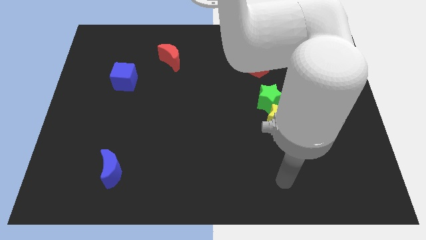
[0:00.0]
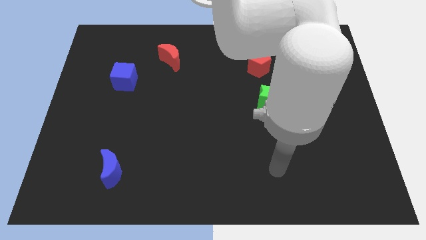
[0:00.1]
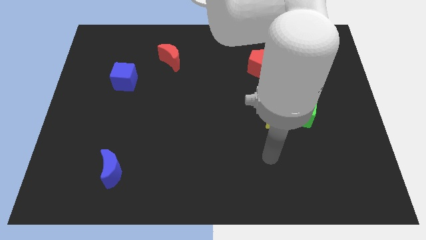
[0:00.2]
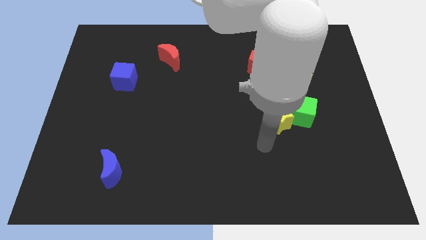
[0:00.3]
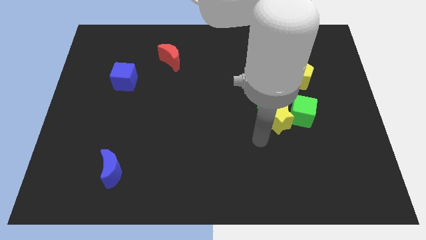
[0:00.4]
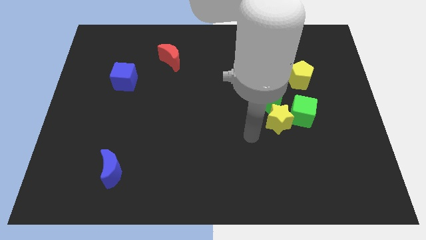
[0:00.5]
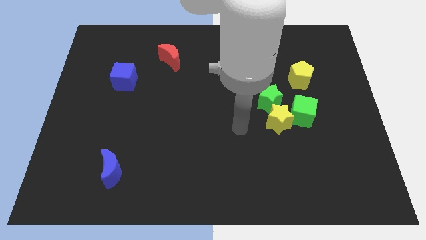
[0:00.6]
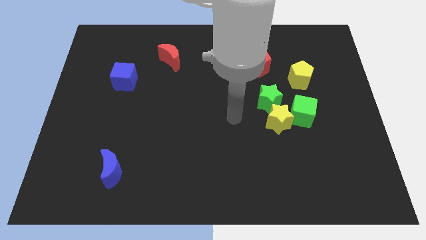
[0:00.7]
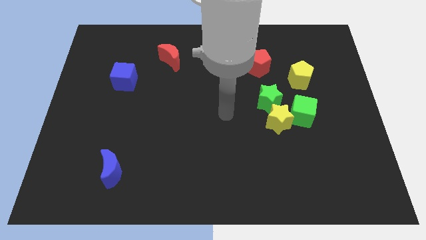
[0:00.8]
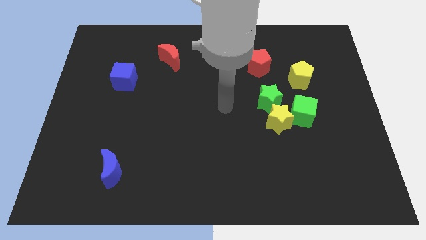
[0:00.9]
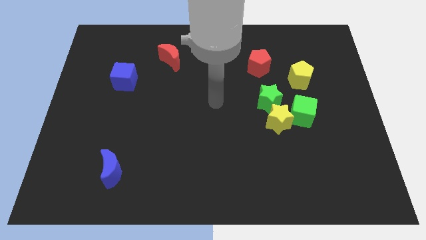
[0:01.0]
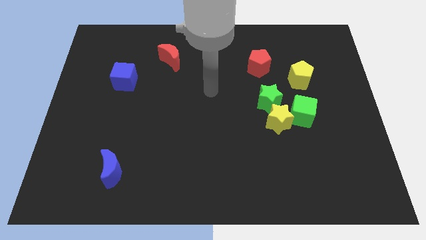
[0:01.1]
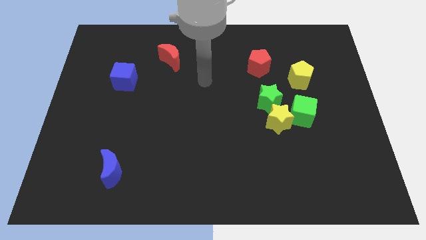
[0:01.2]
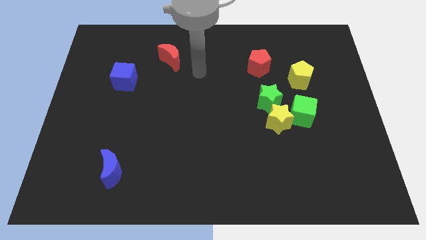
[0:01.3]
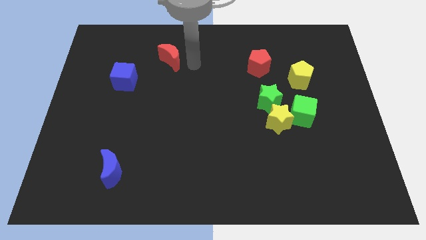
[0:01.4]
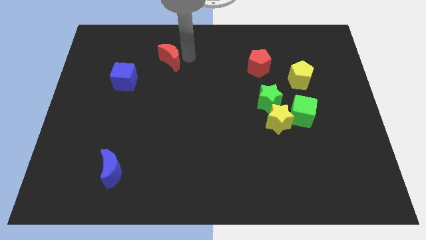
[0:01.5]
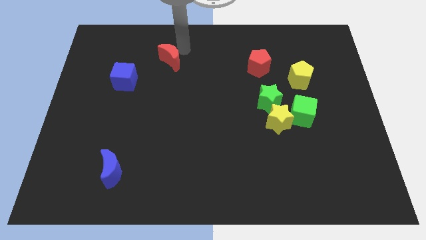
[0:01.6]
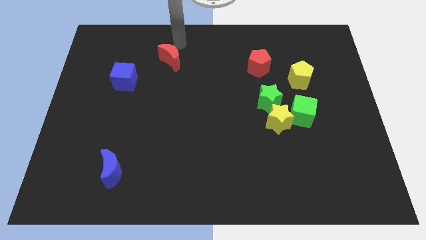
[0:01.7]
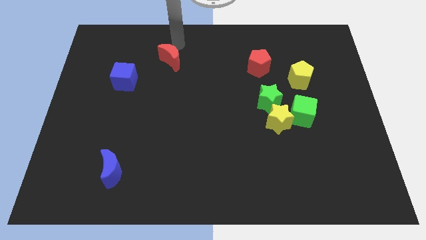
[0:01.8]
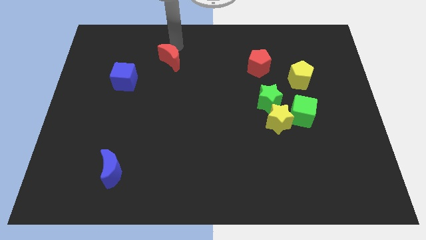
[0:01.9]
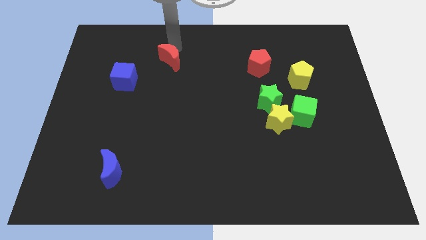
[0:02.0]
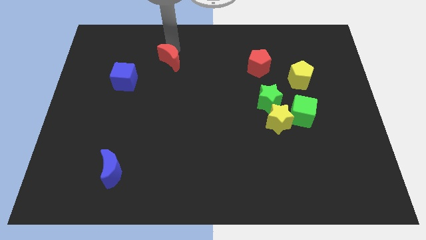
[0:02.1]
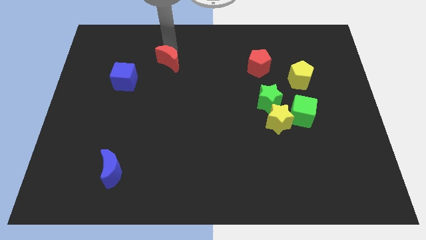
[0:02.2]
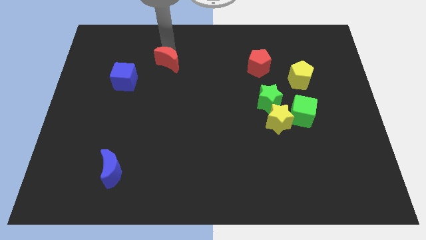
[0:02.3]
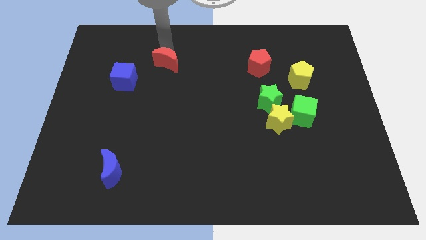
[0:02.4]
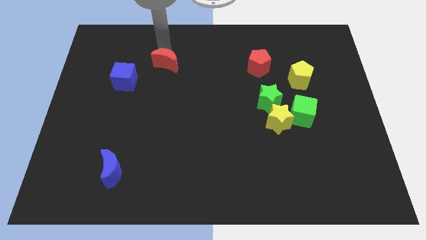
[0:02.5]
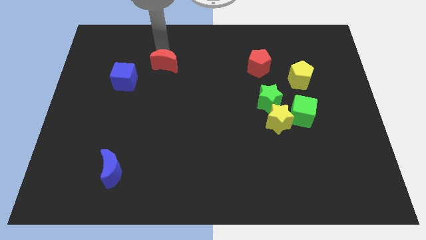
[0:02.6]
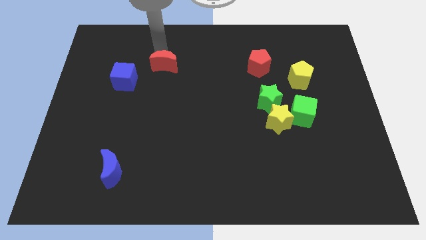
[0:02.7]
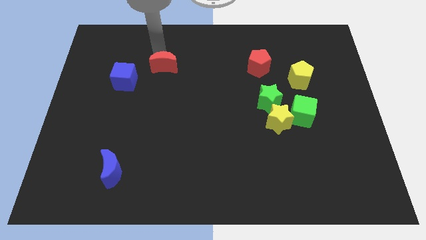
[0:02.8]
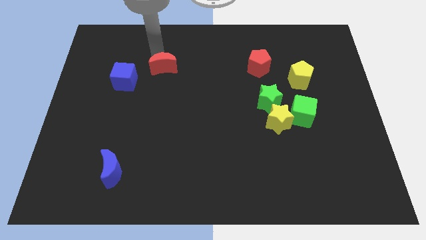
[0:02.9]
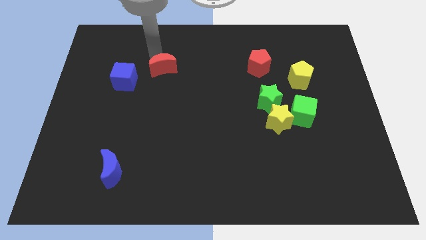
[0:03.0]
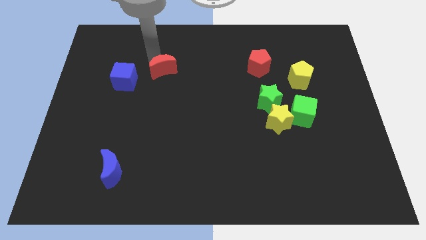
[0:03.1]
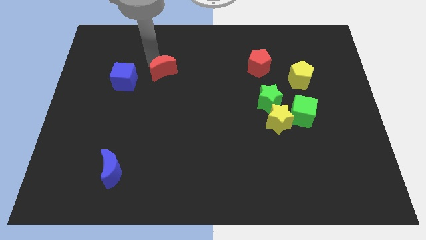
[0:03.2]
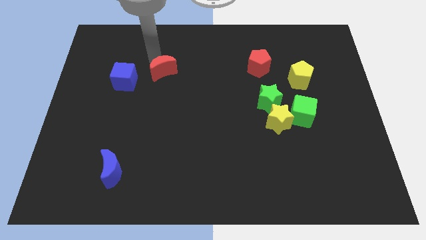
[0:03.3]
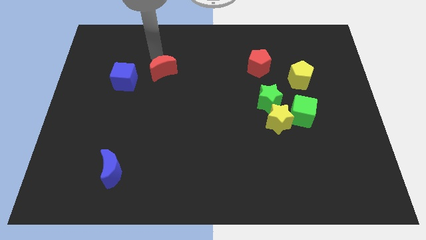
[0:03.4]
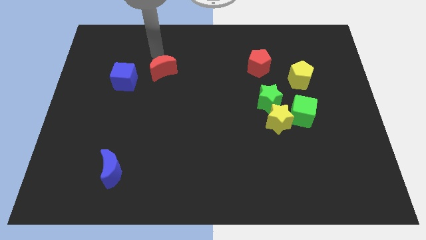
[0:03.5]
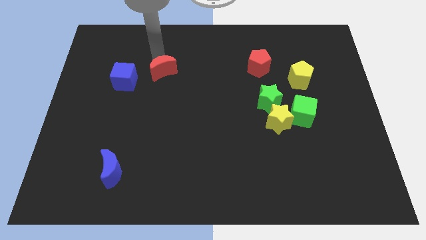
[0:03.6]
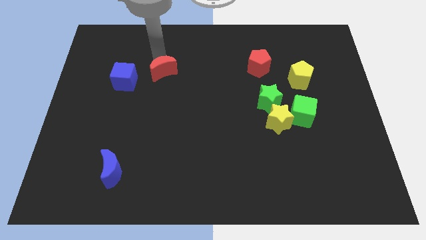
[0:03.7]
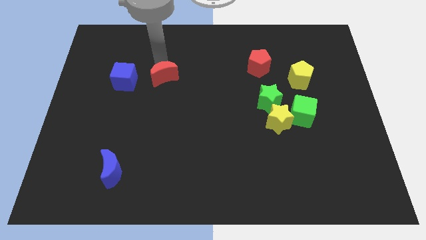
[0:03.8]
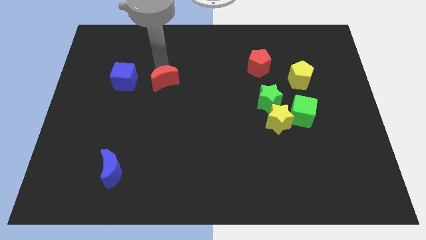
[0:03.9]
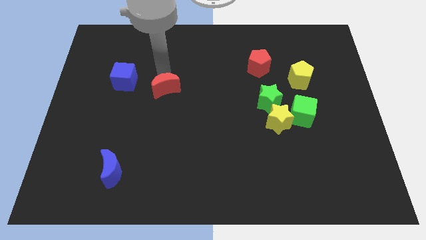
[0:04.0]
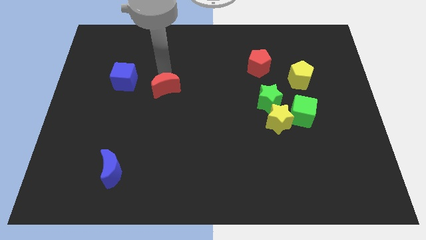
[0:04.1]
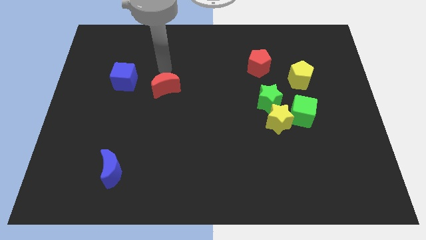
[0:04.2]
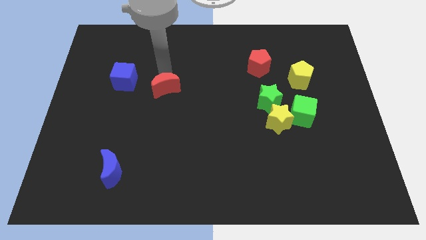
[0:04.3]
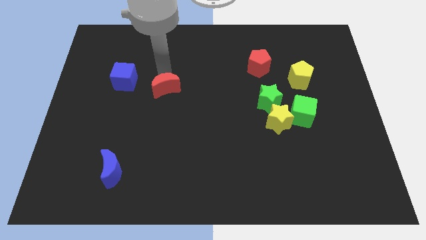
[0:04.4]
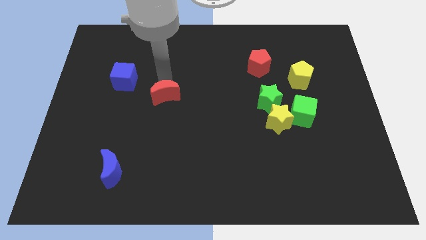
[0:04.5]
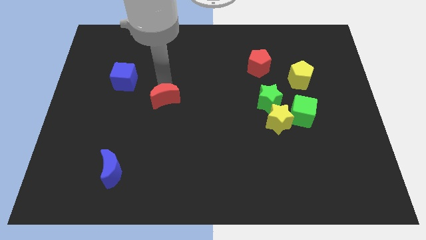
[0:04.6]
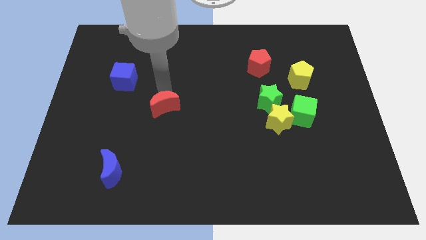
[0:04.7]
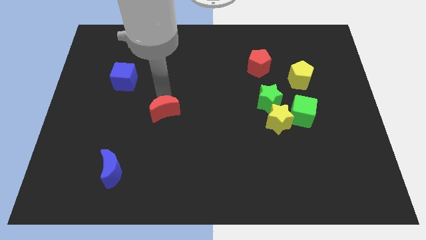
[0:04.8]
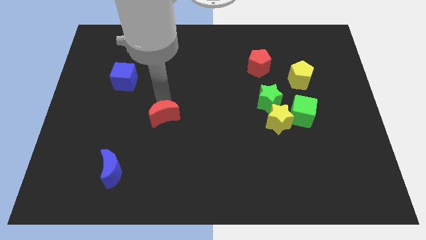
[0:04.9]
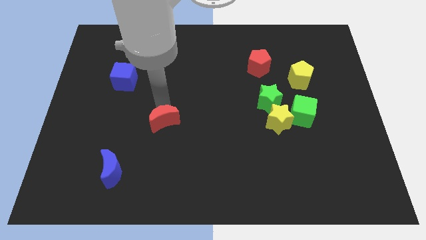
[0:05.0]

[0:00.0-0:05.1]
slide the red moon down

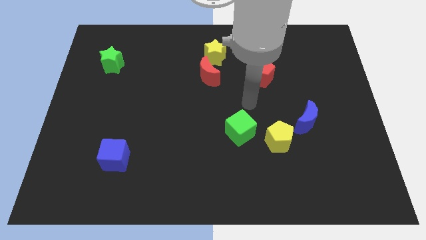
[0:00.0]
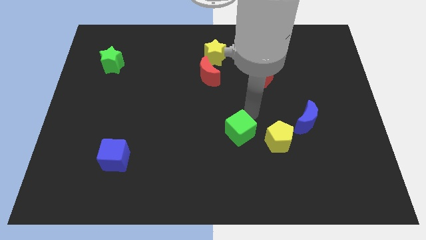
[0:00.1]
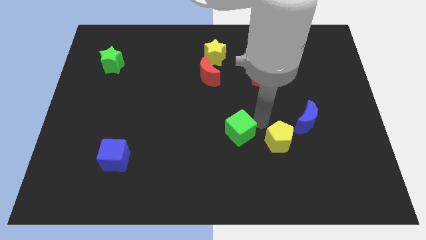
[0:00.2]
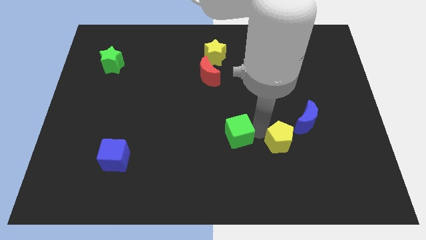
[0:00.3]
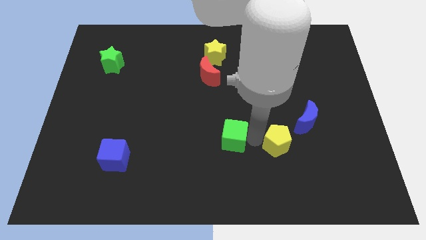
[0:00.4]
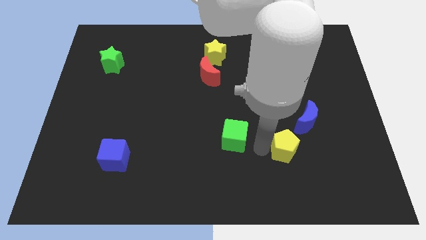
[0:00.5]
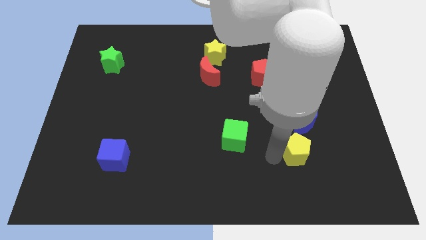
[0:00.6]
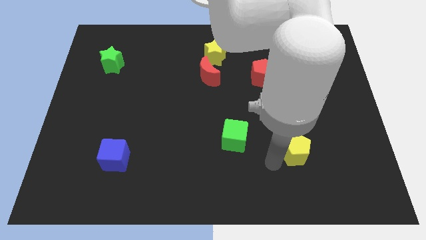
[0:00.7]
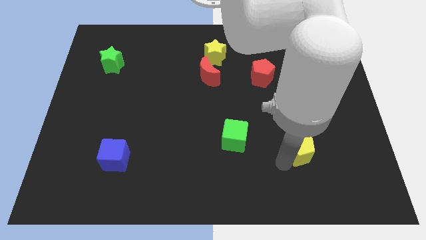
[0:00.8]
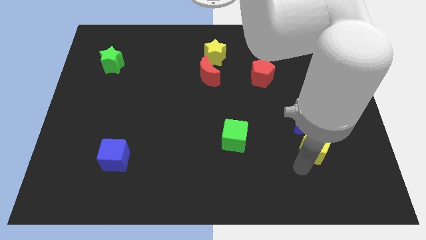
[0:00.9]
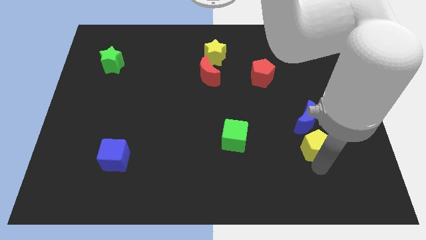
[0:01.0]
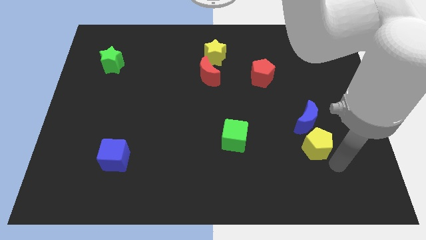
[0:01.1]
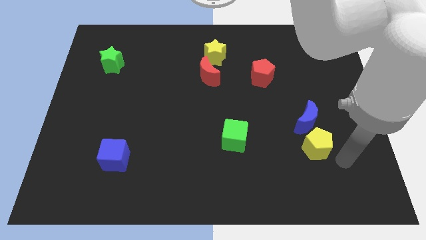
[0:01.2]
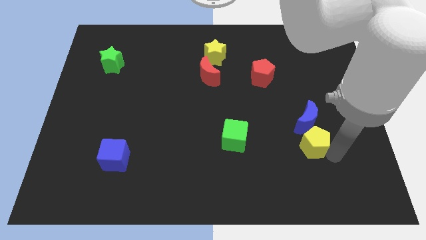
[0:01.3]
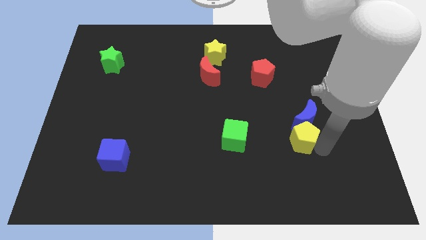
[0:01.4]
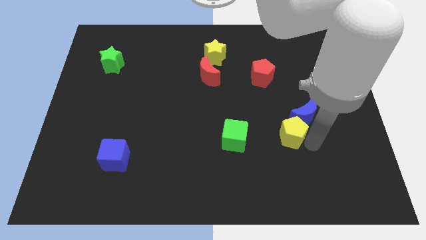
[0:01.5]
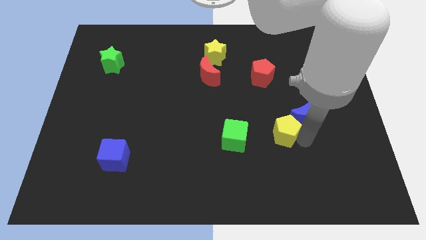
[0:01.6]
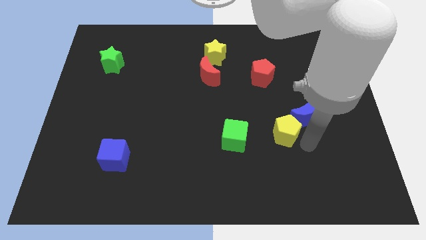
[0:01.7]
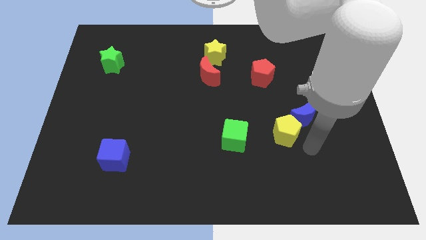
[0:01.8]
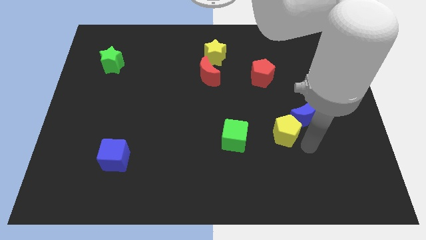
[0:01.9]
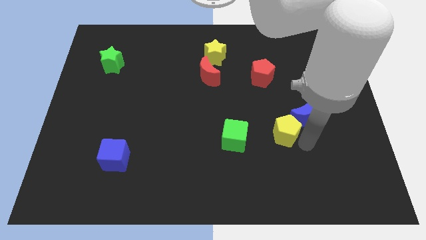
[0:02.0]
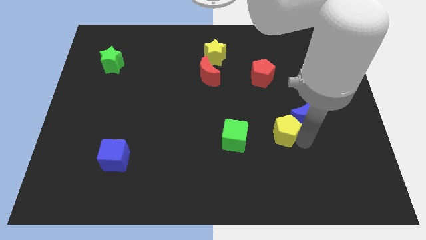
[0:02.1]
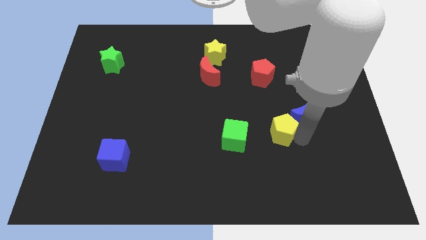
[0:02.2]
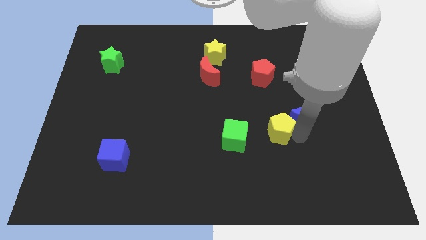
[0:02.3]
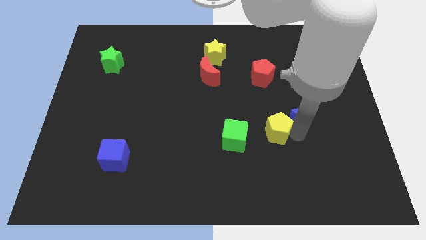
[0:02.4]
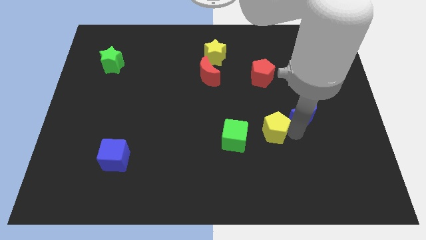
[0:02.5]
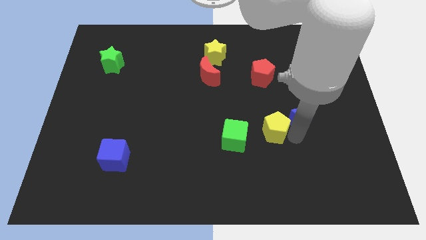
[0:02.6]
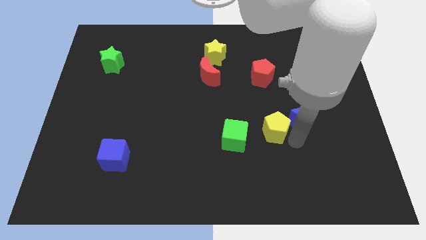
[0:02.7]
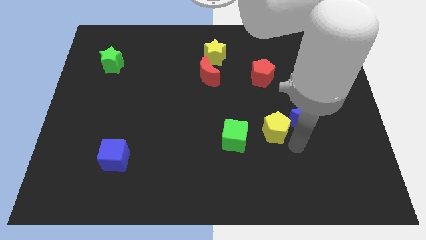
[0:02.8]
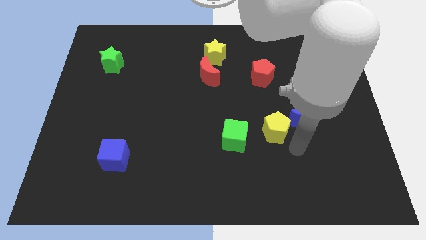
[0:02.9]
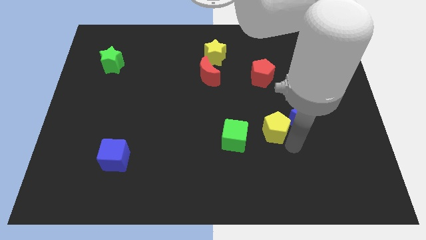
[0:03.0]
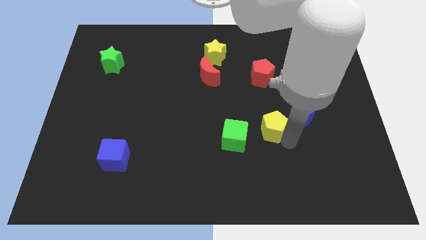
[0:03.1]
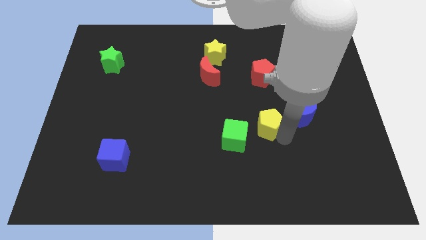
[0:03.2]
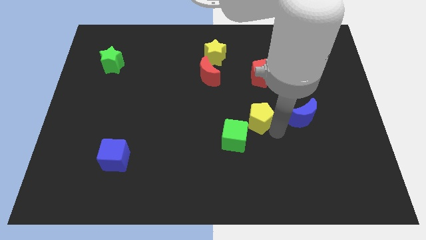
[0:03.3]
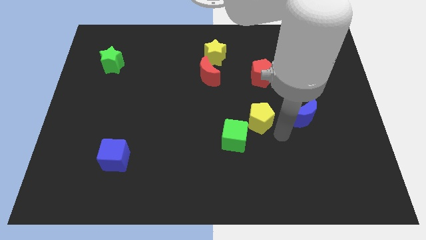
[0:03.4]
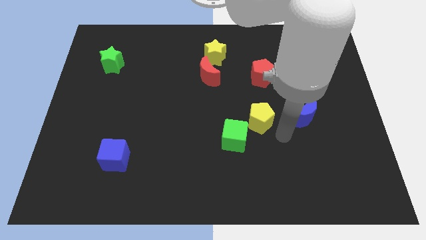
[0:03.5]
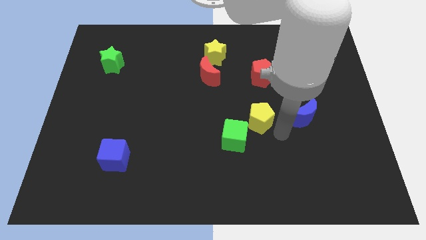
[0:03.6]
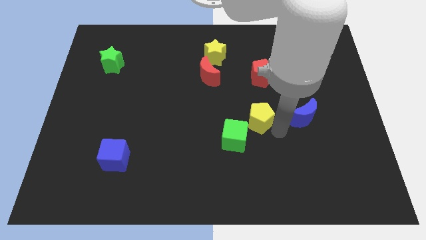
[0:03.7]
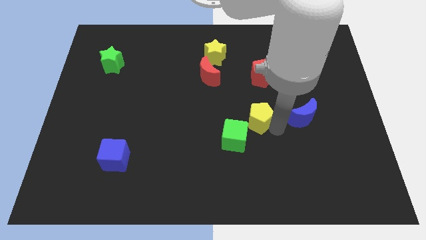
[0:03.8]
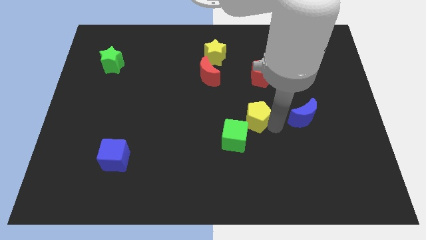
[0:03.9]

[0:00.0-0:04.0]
push the yellow pentagon a little upwards and then left
